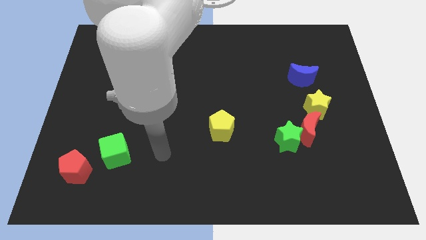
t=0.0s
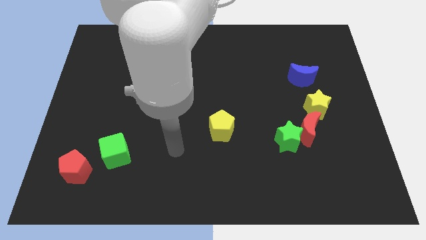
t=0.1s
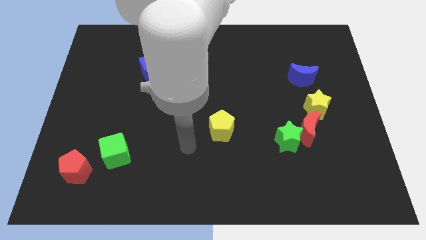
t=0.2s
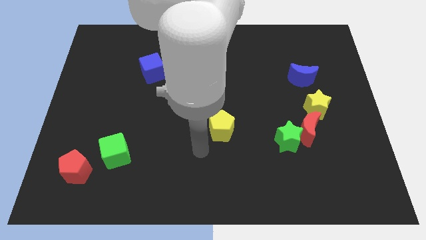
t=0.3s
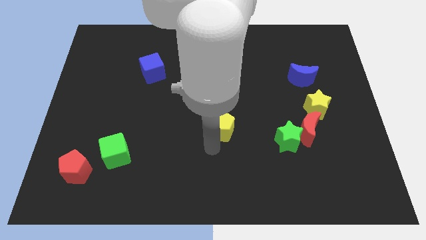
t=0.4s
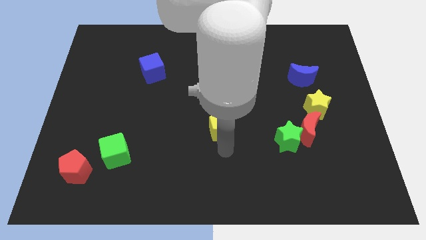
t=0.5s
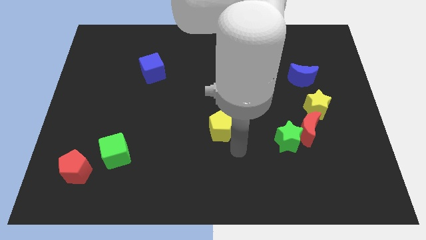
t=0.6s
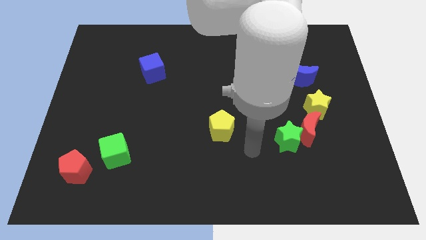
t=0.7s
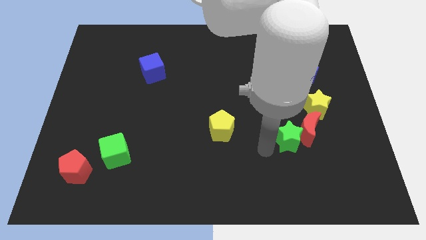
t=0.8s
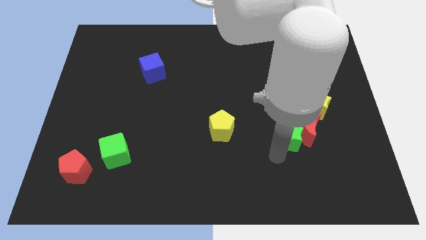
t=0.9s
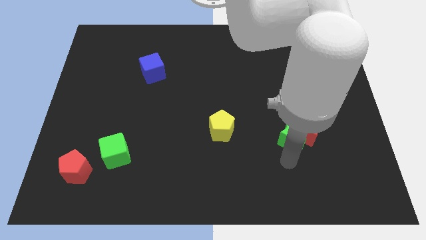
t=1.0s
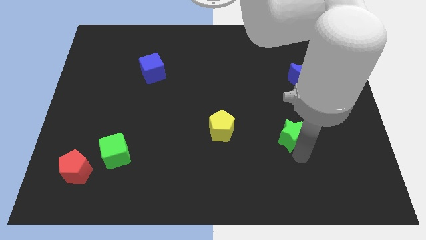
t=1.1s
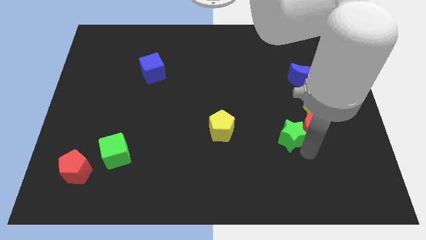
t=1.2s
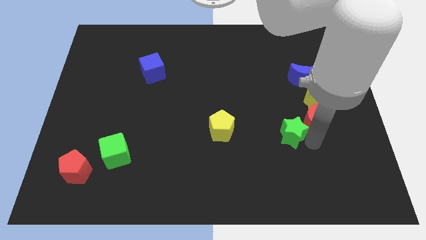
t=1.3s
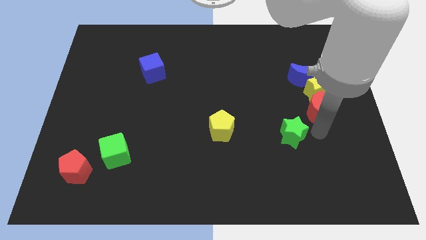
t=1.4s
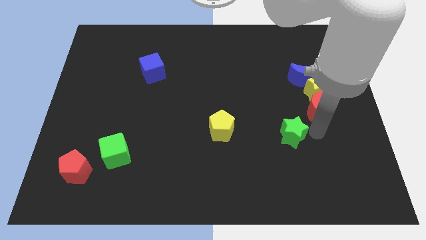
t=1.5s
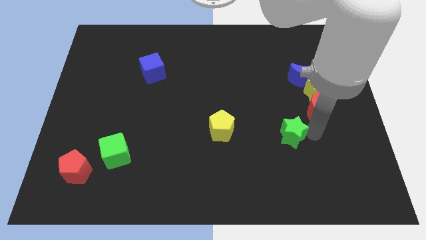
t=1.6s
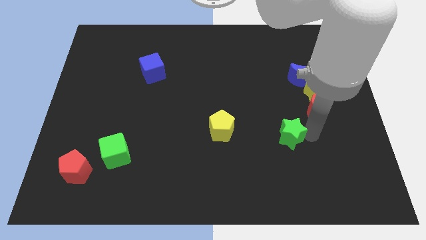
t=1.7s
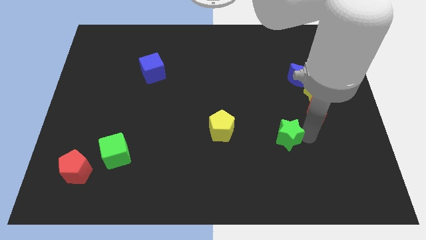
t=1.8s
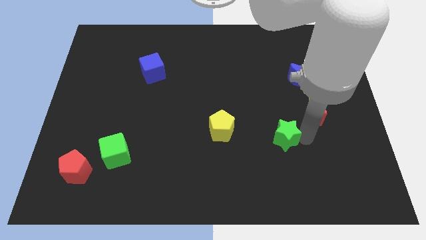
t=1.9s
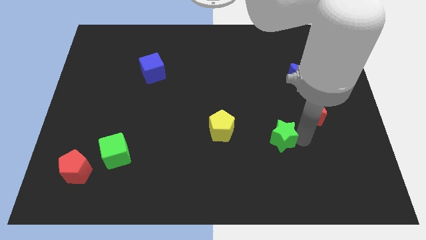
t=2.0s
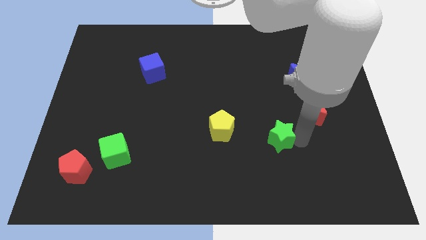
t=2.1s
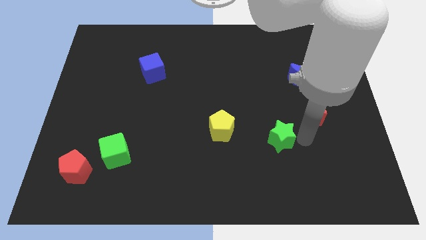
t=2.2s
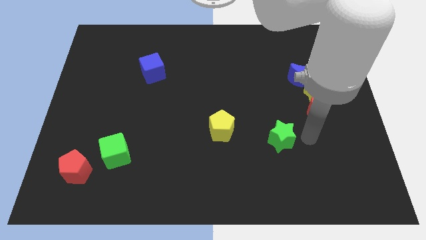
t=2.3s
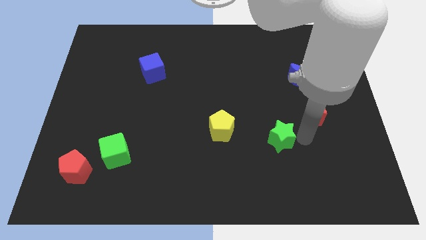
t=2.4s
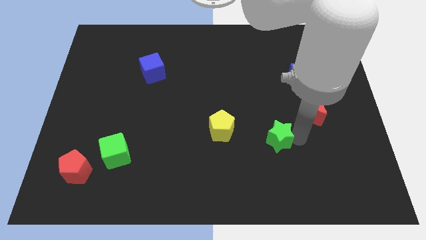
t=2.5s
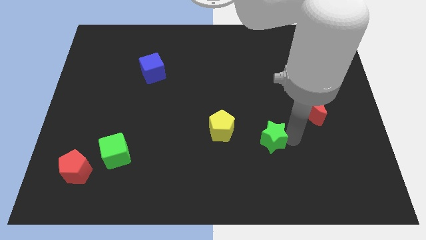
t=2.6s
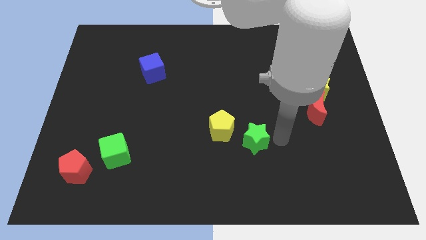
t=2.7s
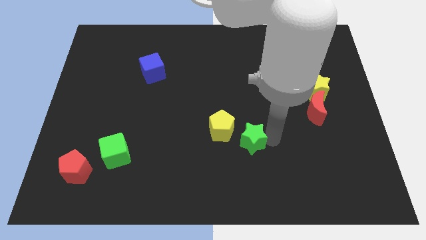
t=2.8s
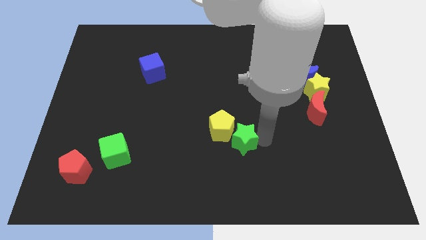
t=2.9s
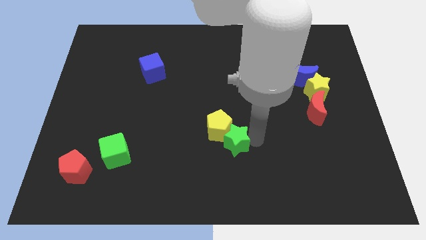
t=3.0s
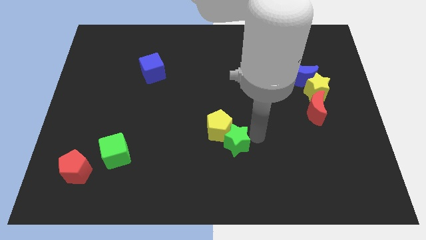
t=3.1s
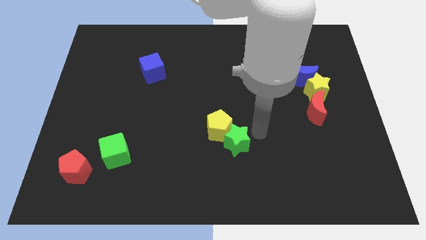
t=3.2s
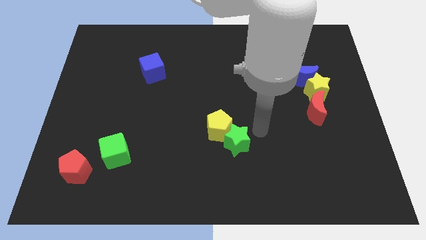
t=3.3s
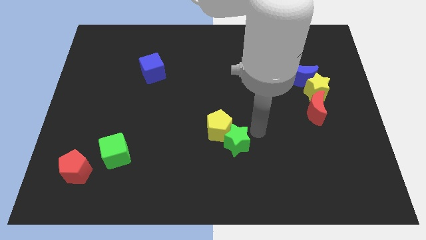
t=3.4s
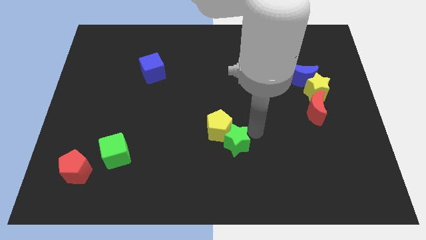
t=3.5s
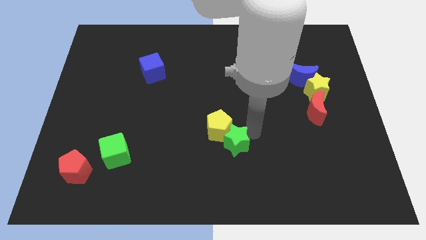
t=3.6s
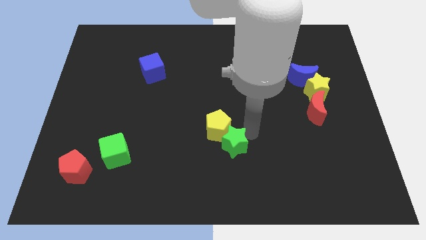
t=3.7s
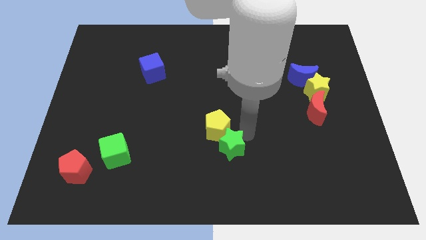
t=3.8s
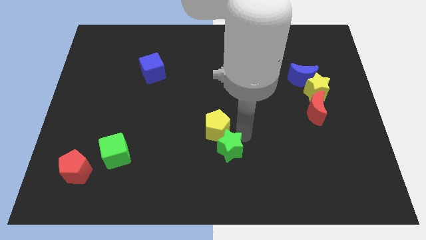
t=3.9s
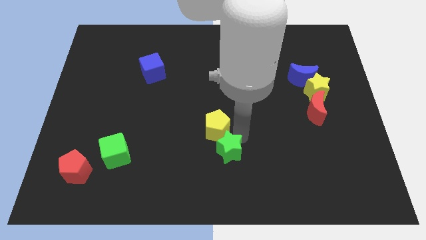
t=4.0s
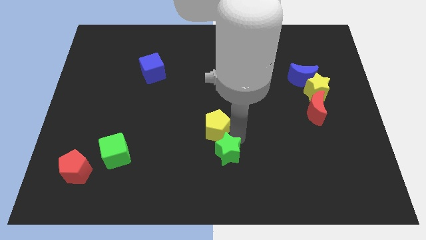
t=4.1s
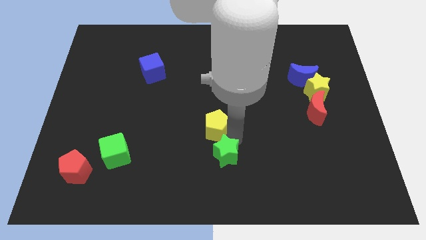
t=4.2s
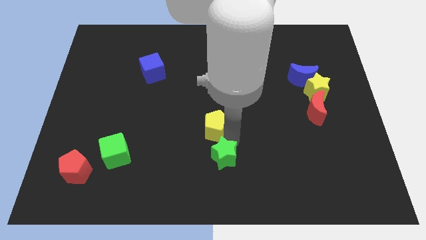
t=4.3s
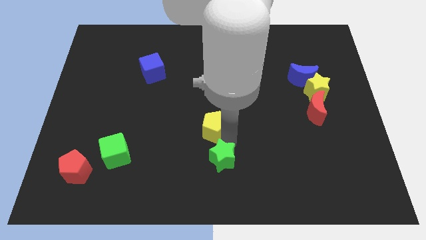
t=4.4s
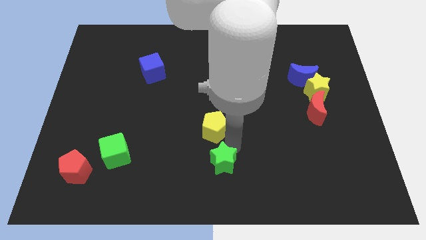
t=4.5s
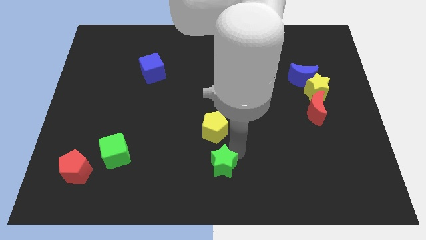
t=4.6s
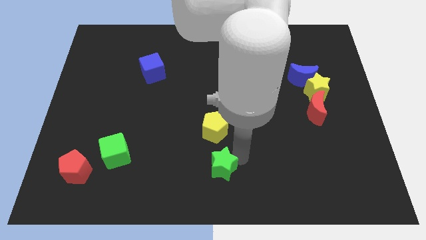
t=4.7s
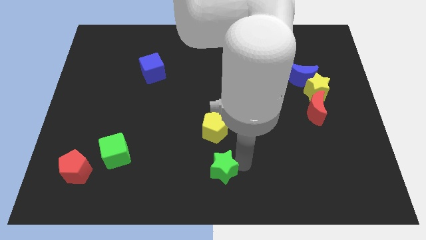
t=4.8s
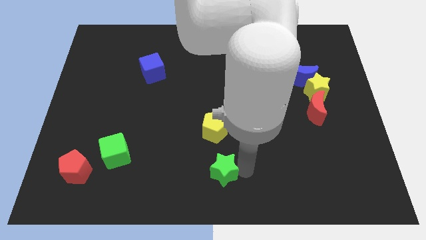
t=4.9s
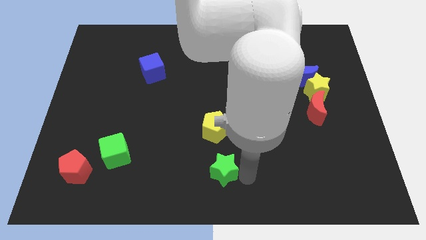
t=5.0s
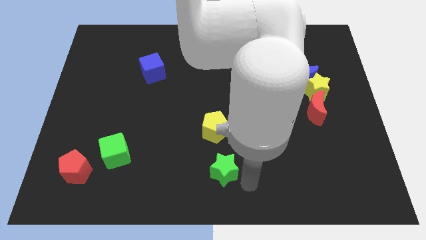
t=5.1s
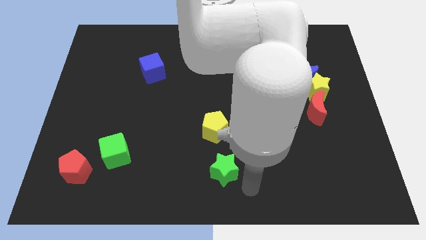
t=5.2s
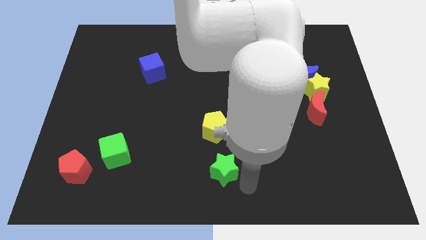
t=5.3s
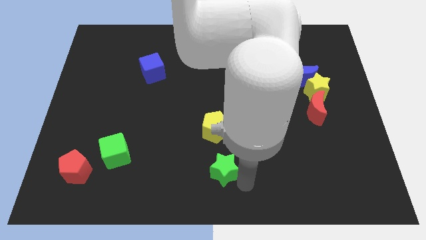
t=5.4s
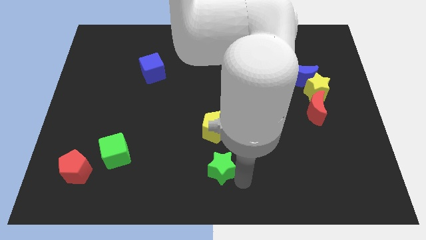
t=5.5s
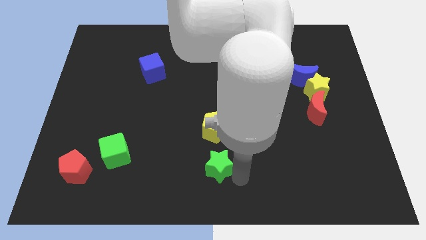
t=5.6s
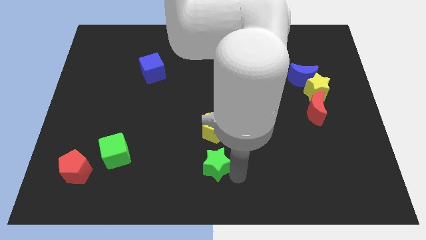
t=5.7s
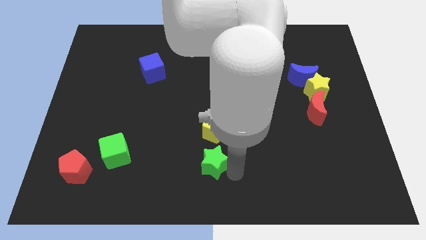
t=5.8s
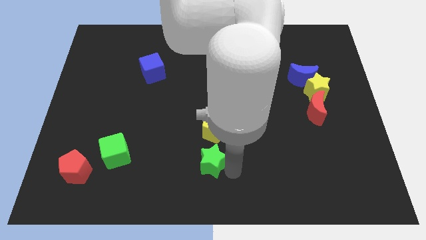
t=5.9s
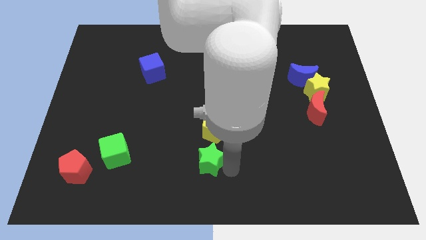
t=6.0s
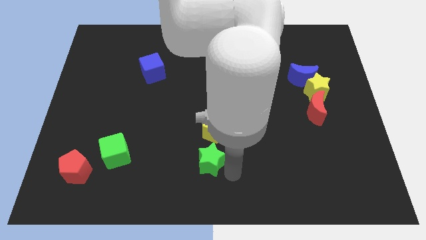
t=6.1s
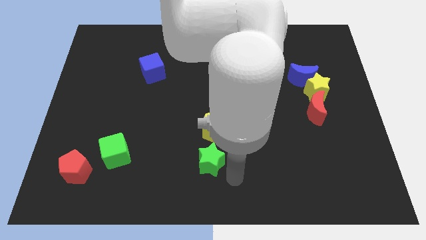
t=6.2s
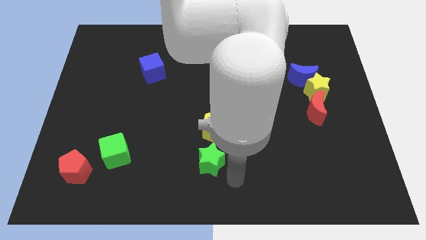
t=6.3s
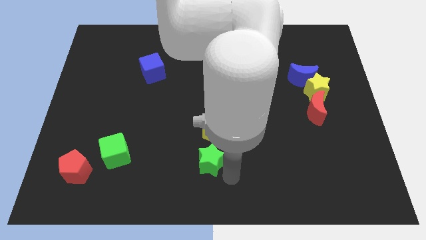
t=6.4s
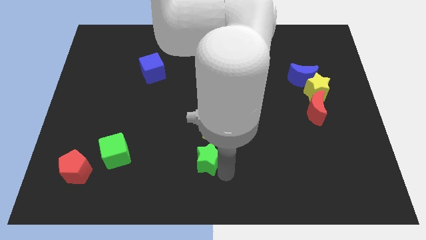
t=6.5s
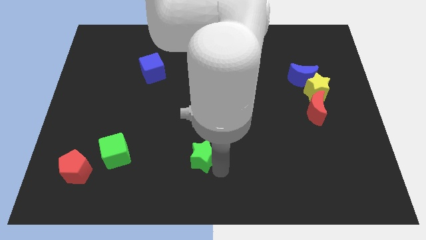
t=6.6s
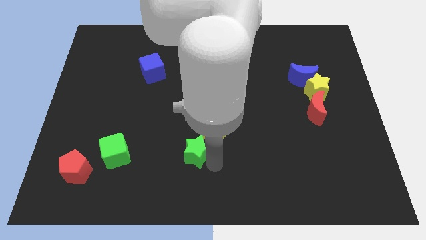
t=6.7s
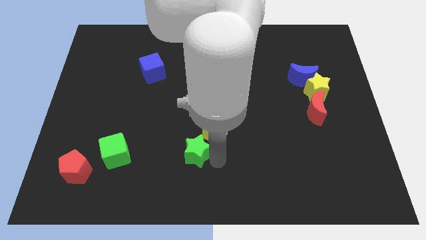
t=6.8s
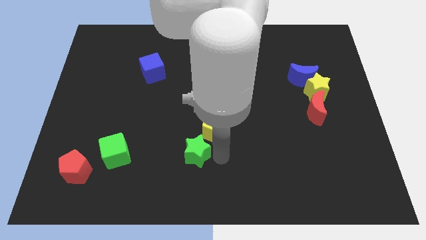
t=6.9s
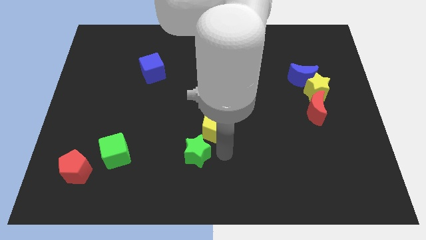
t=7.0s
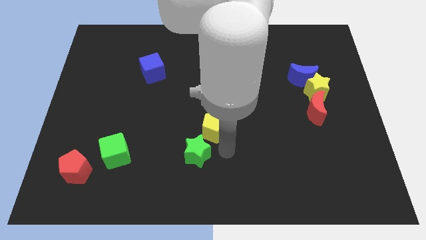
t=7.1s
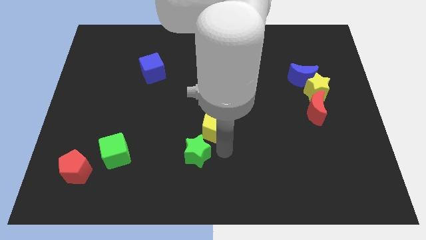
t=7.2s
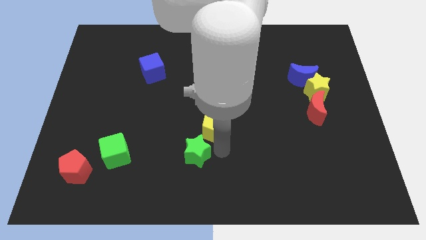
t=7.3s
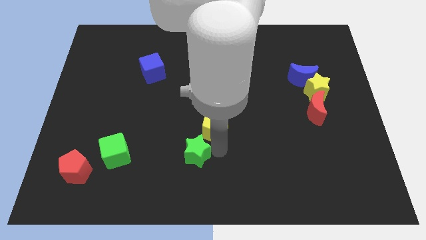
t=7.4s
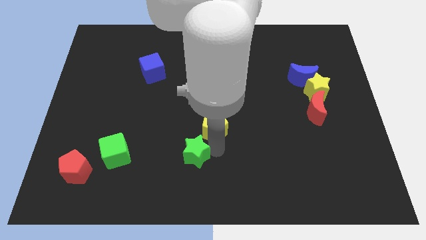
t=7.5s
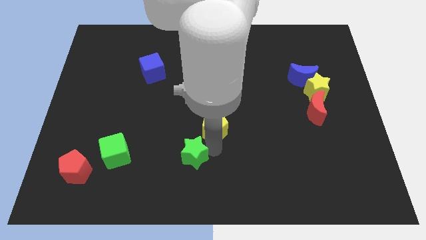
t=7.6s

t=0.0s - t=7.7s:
push the green star to the left

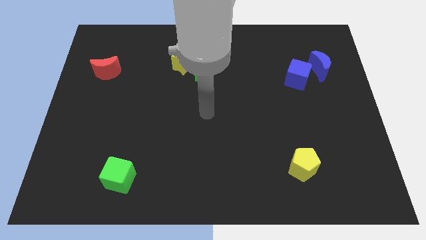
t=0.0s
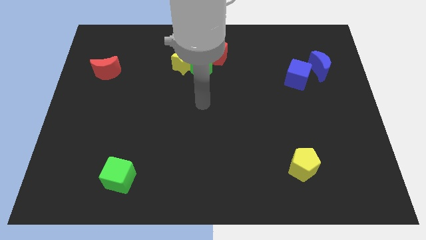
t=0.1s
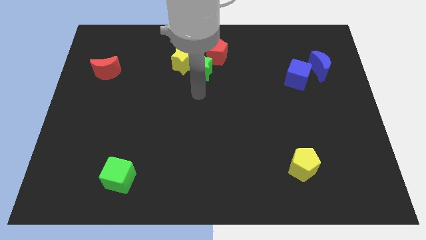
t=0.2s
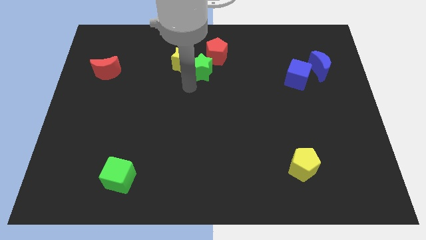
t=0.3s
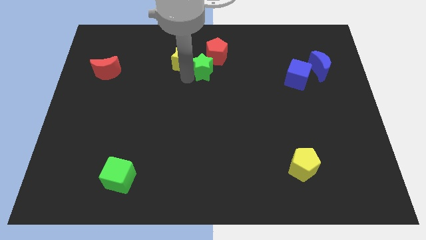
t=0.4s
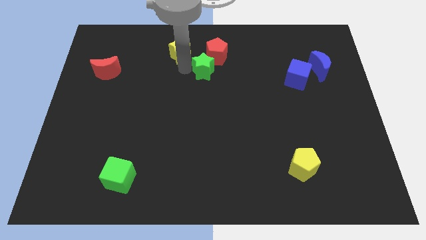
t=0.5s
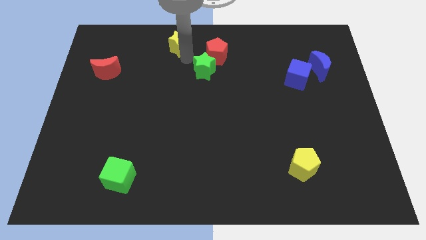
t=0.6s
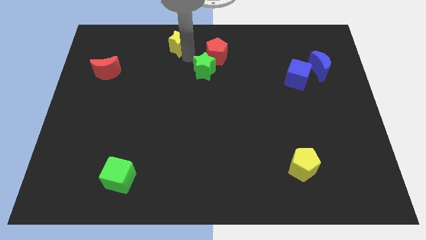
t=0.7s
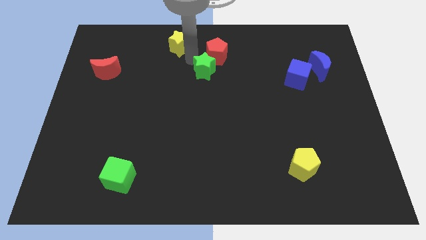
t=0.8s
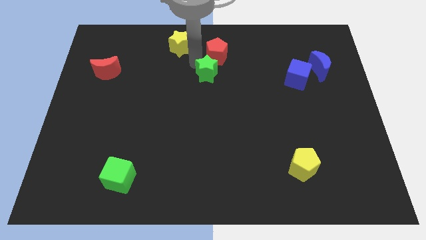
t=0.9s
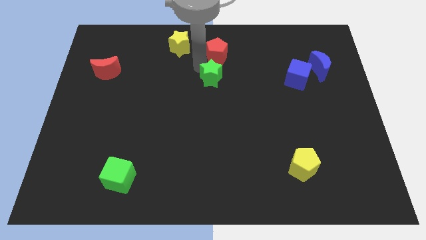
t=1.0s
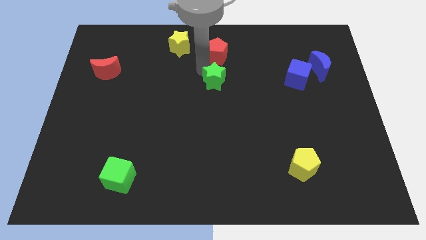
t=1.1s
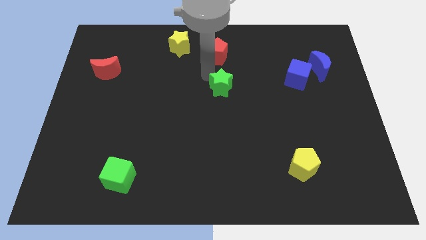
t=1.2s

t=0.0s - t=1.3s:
push the green star downwards and right diagonally a little
